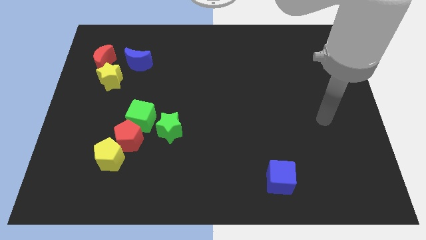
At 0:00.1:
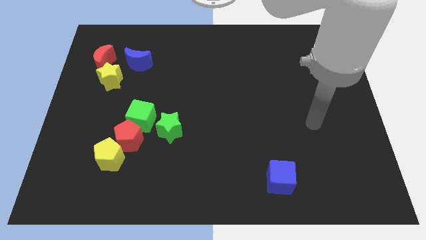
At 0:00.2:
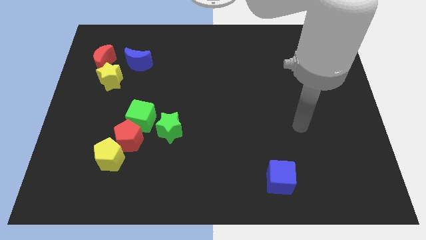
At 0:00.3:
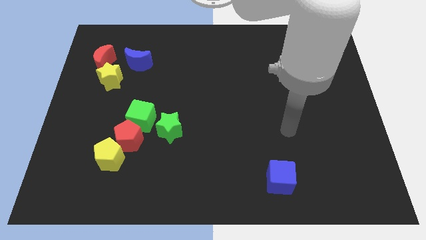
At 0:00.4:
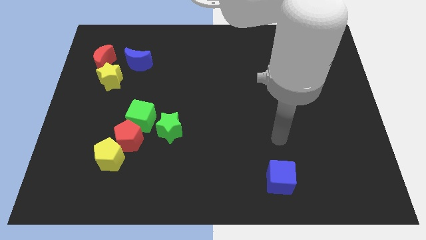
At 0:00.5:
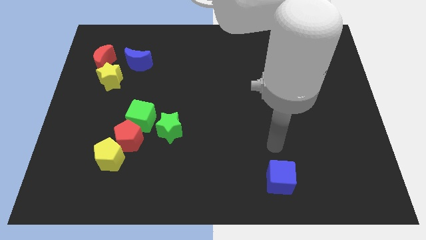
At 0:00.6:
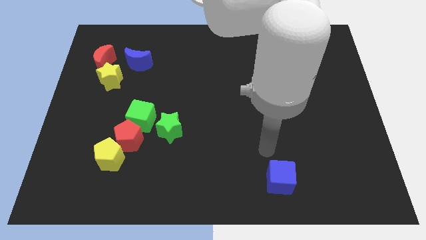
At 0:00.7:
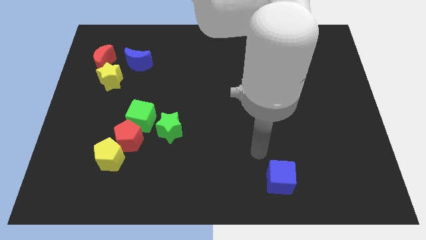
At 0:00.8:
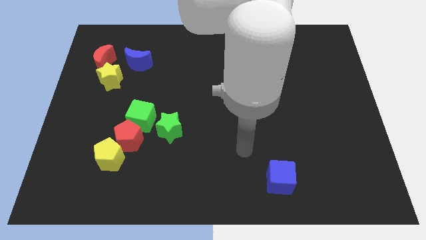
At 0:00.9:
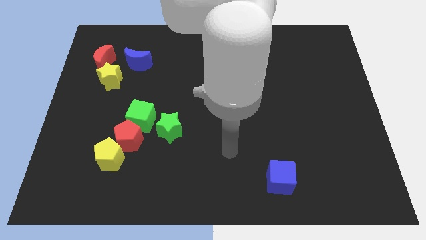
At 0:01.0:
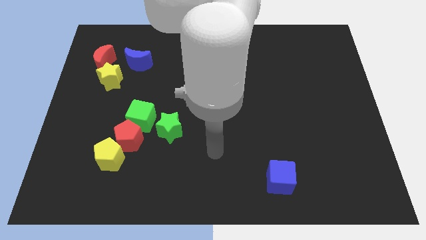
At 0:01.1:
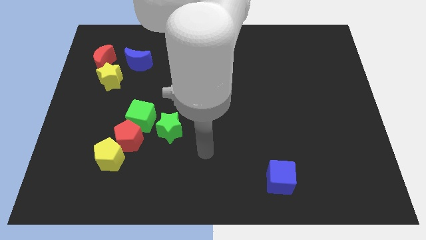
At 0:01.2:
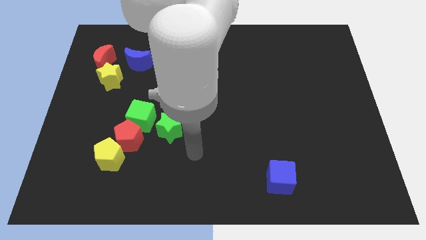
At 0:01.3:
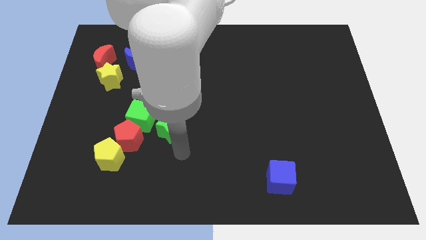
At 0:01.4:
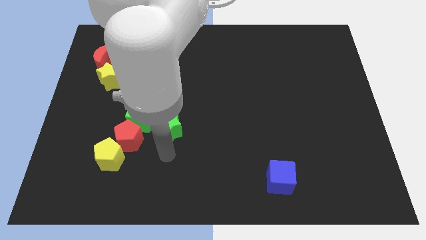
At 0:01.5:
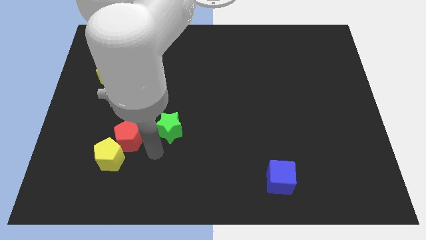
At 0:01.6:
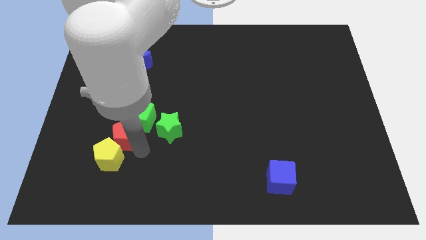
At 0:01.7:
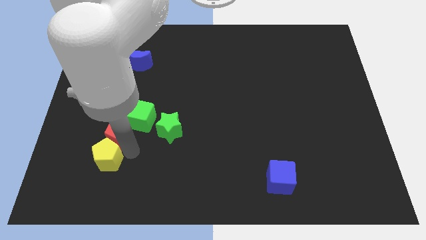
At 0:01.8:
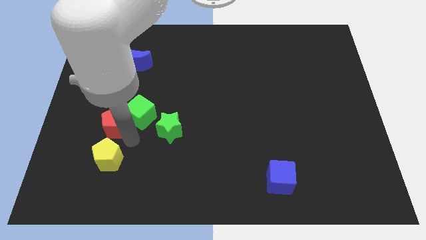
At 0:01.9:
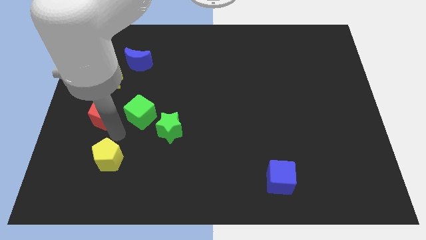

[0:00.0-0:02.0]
pull the yellow pentagon apart from the red pentagon

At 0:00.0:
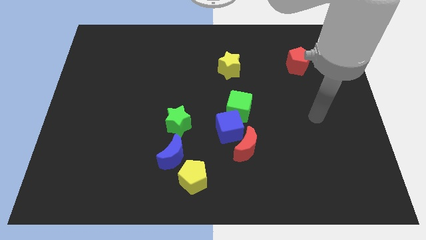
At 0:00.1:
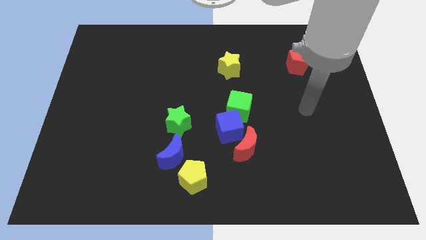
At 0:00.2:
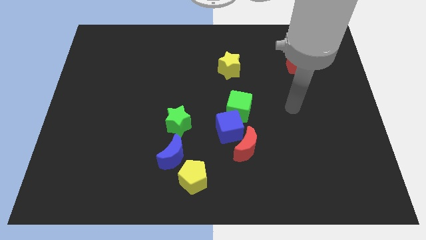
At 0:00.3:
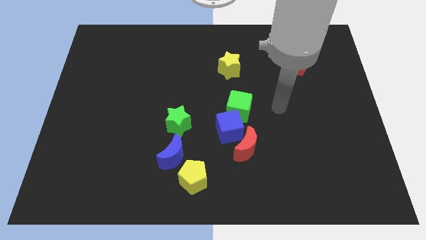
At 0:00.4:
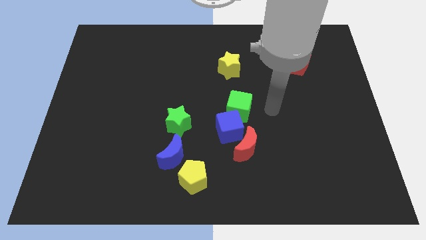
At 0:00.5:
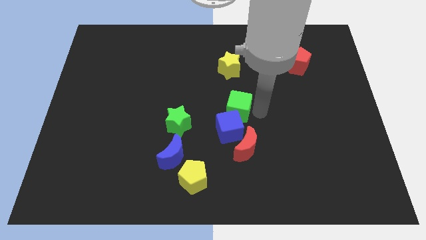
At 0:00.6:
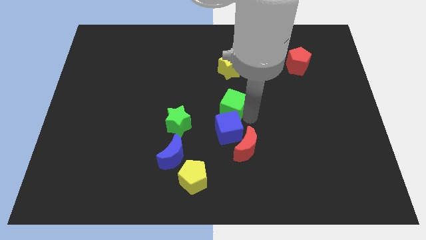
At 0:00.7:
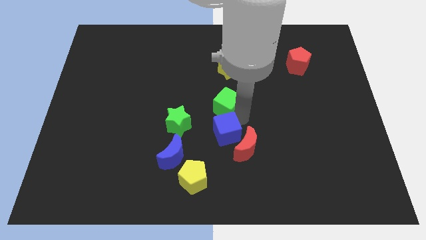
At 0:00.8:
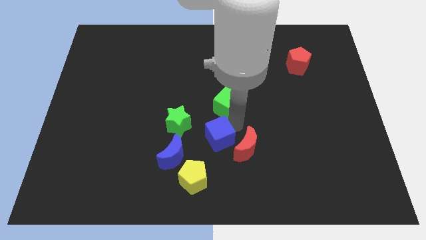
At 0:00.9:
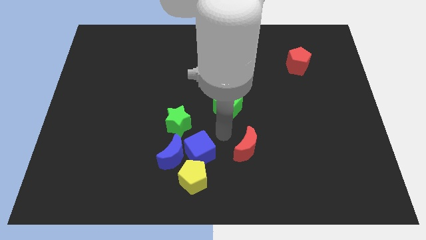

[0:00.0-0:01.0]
pull the red moon apart from the blue cube

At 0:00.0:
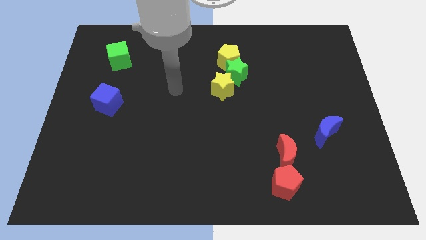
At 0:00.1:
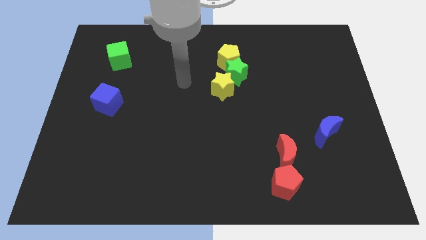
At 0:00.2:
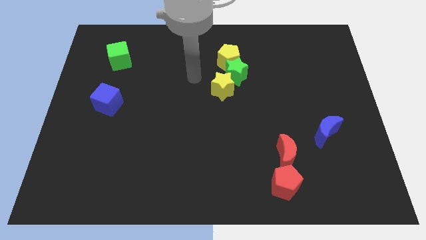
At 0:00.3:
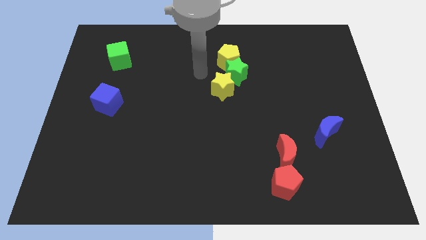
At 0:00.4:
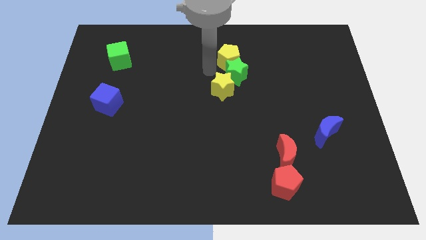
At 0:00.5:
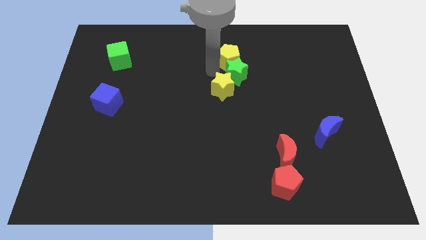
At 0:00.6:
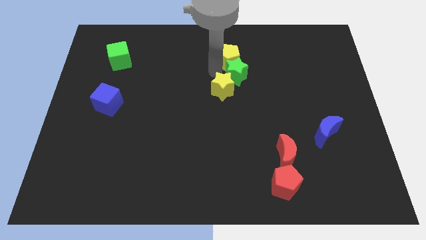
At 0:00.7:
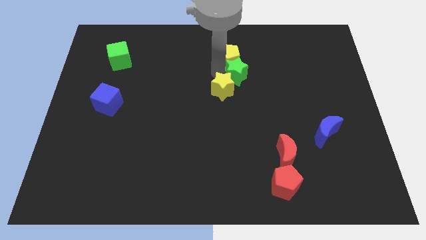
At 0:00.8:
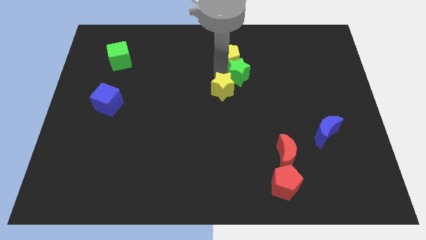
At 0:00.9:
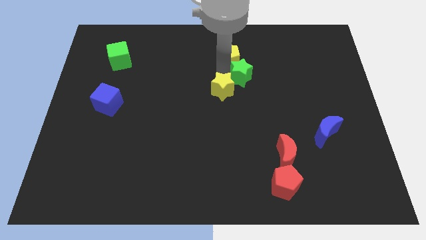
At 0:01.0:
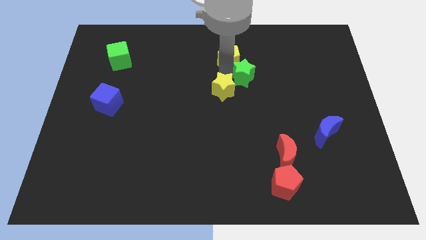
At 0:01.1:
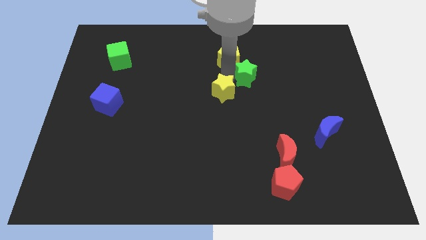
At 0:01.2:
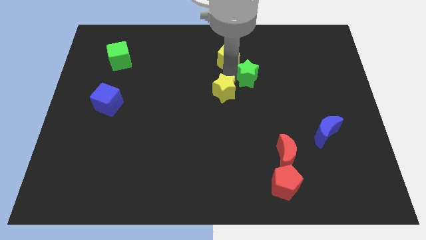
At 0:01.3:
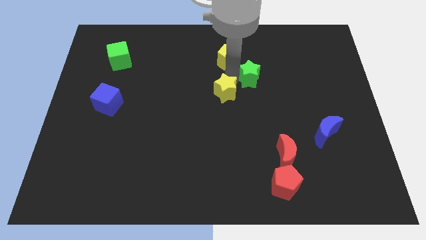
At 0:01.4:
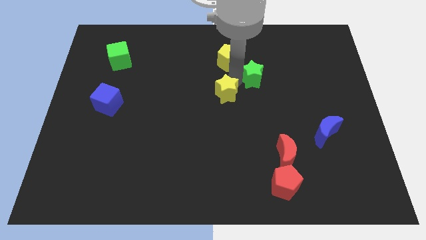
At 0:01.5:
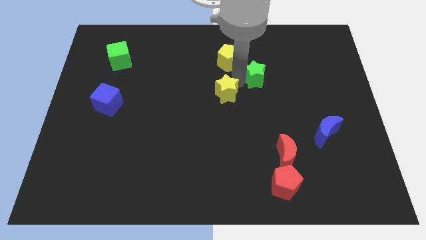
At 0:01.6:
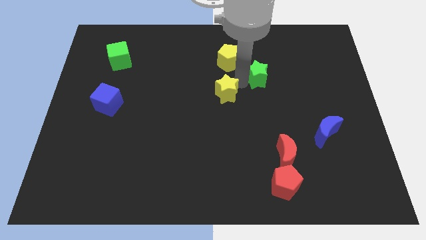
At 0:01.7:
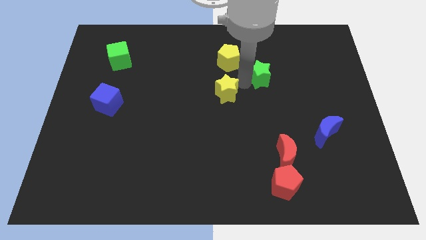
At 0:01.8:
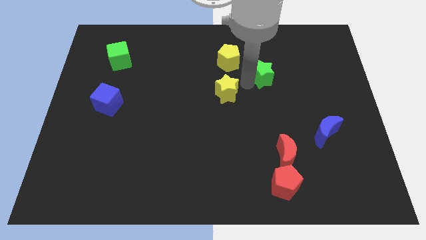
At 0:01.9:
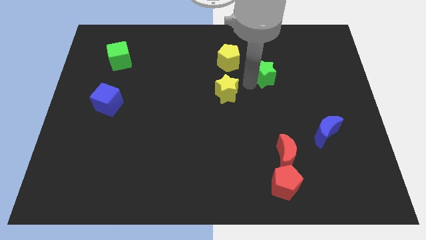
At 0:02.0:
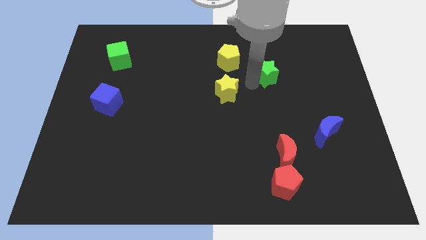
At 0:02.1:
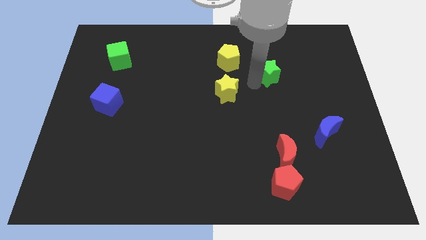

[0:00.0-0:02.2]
pull the green star apart from the yellow star and yellow pentagon

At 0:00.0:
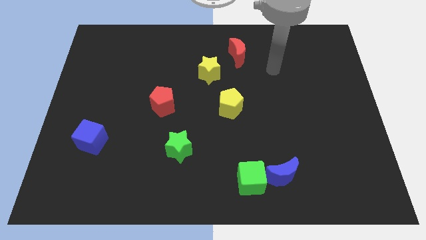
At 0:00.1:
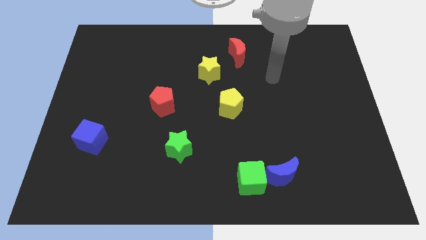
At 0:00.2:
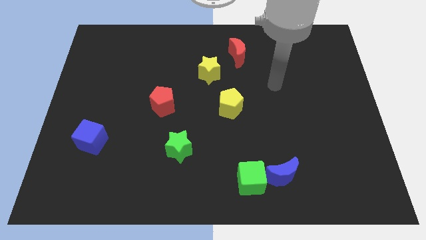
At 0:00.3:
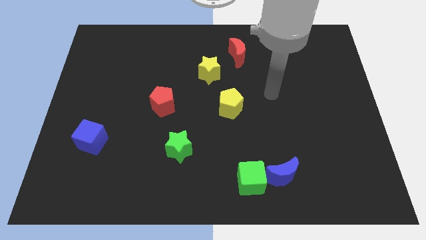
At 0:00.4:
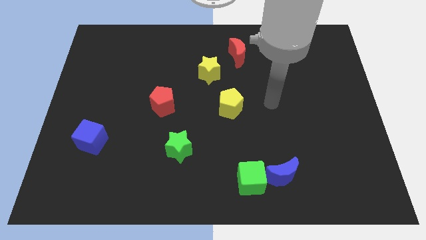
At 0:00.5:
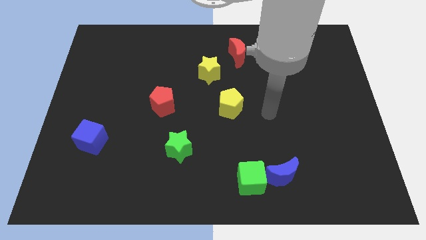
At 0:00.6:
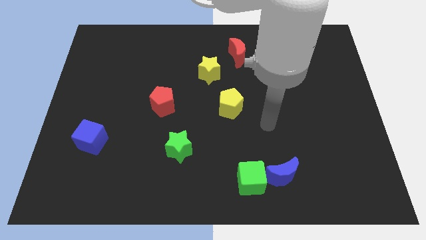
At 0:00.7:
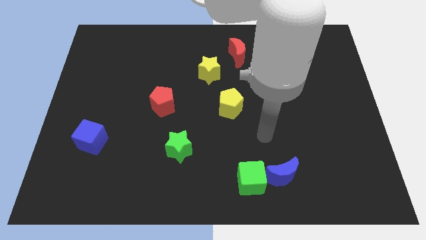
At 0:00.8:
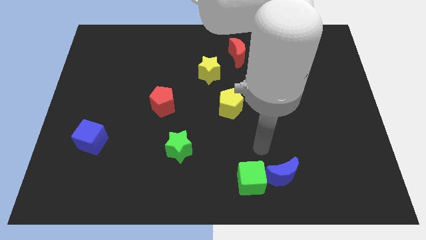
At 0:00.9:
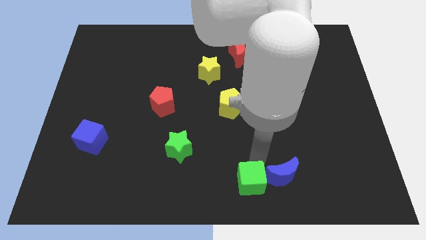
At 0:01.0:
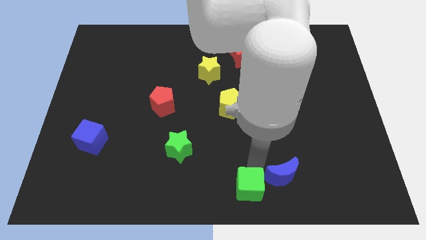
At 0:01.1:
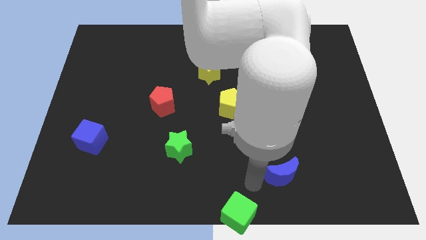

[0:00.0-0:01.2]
separate the blue moon from the green cube

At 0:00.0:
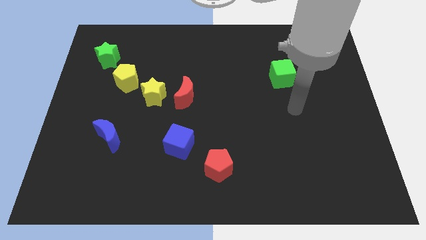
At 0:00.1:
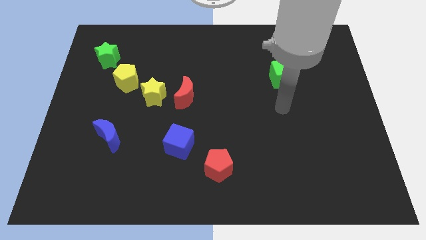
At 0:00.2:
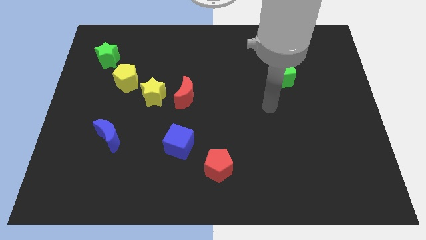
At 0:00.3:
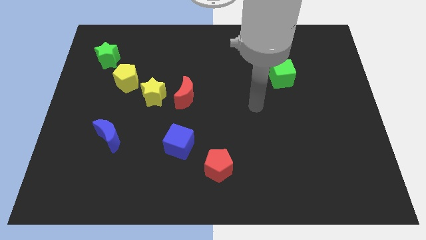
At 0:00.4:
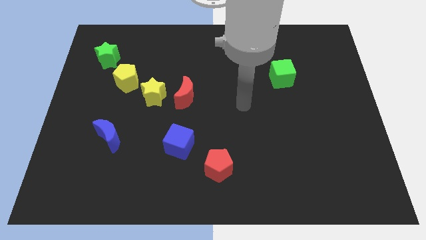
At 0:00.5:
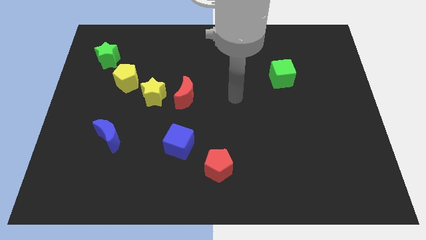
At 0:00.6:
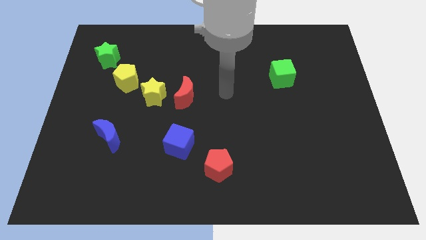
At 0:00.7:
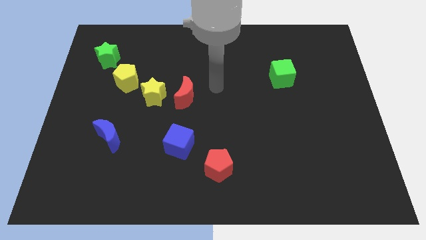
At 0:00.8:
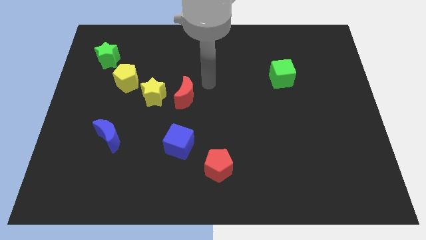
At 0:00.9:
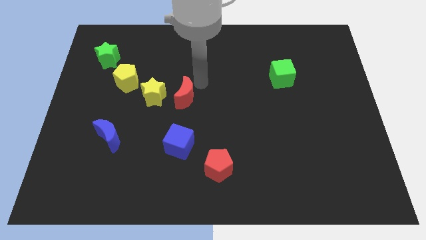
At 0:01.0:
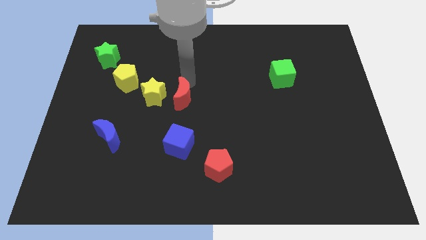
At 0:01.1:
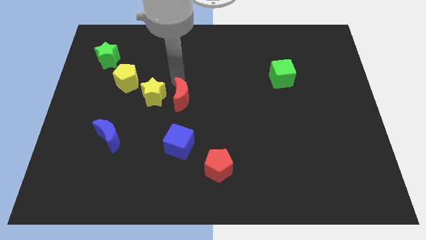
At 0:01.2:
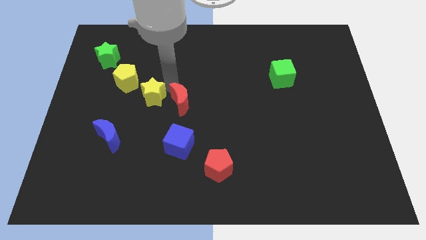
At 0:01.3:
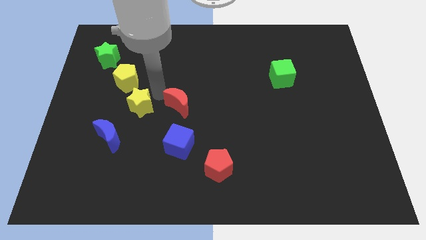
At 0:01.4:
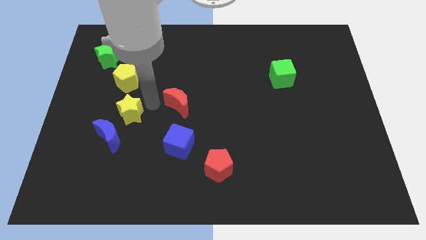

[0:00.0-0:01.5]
move the red moon away from the yellow star

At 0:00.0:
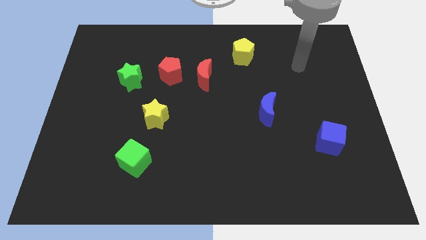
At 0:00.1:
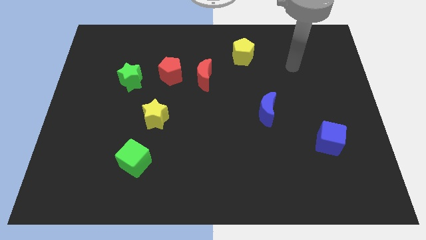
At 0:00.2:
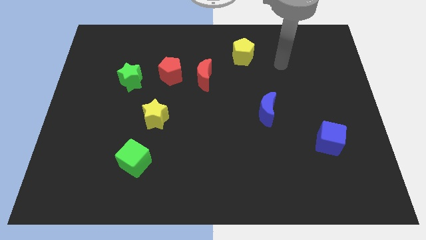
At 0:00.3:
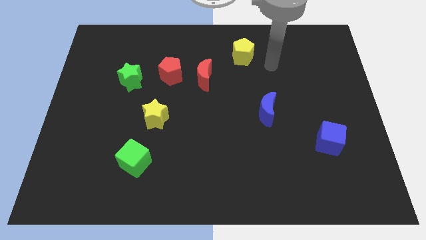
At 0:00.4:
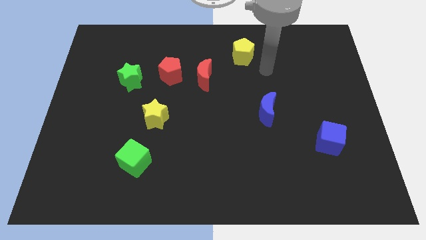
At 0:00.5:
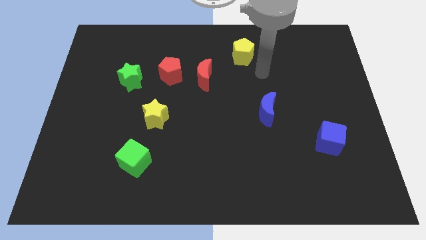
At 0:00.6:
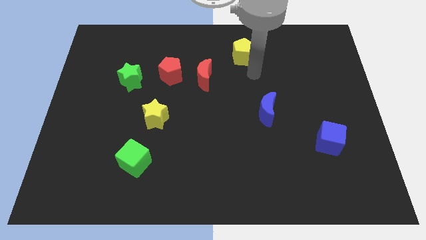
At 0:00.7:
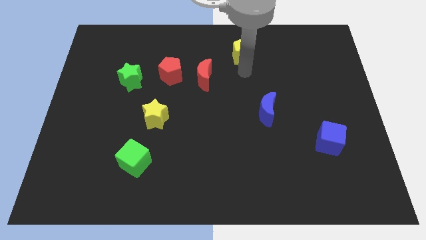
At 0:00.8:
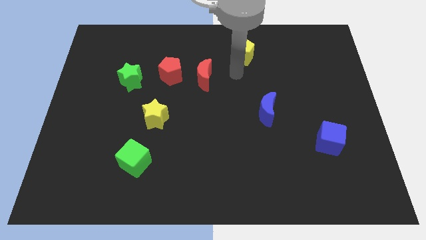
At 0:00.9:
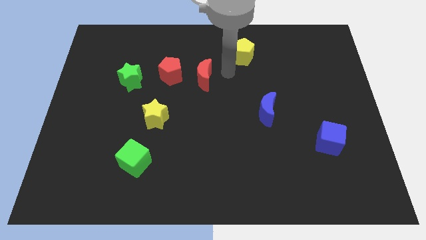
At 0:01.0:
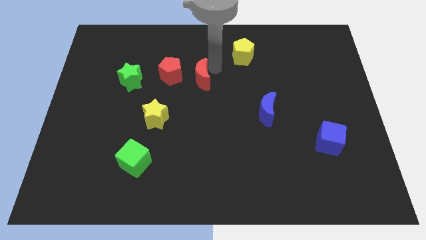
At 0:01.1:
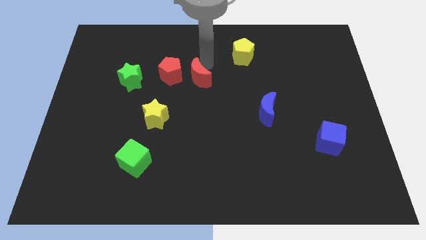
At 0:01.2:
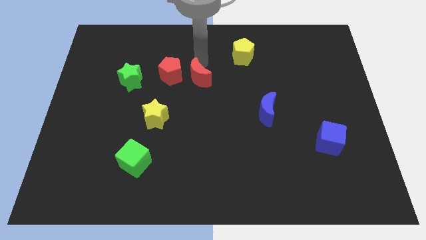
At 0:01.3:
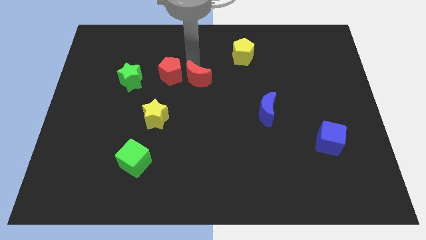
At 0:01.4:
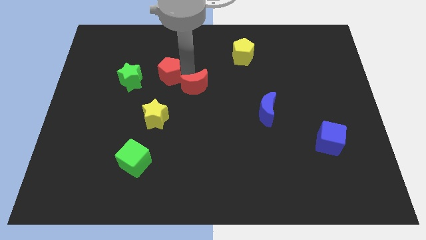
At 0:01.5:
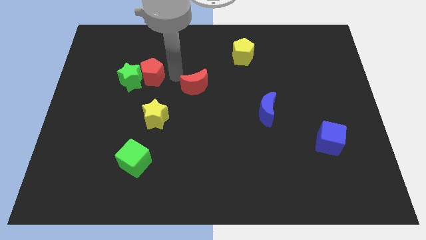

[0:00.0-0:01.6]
move the red moon away from the red pentagon
